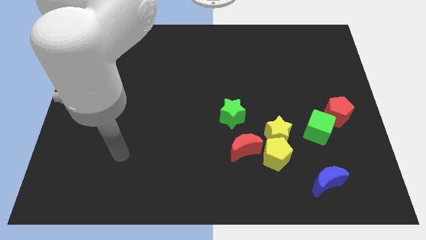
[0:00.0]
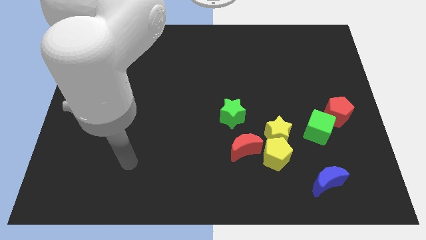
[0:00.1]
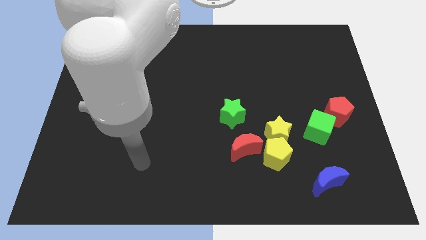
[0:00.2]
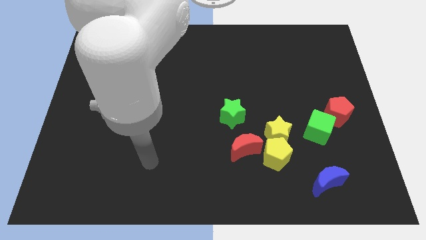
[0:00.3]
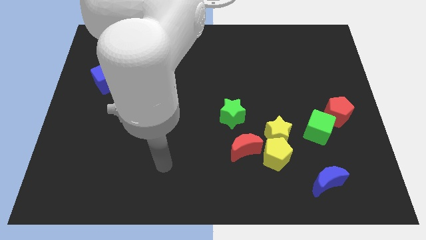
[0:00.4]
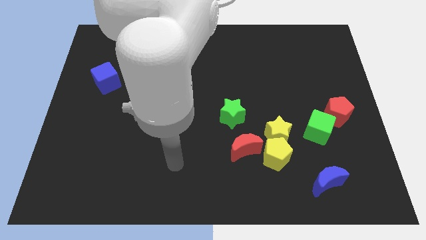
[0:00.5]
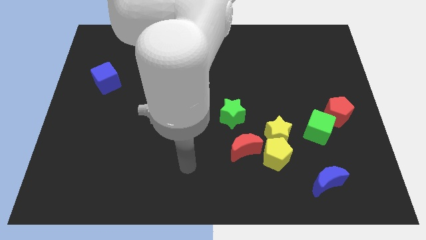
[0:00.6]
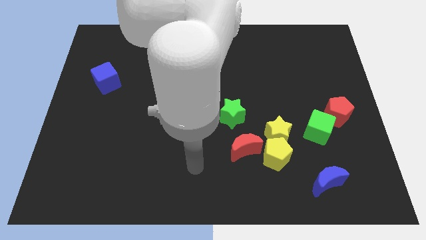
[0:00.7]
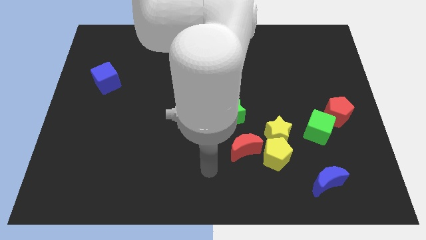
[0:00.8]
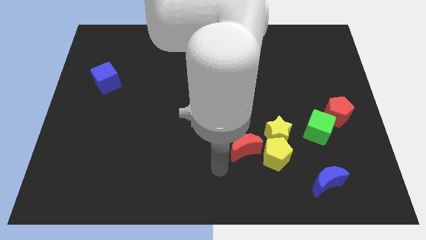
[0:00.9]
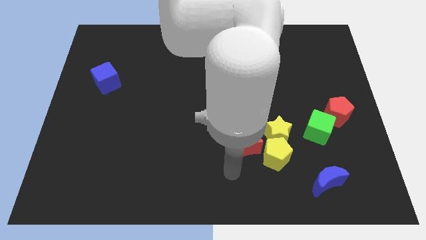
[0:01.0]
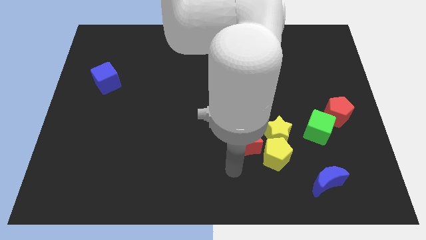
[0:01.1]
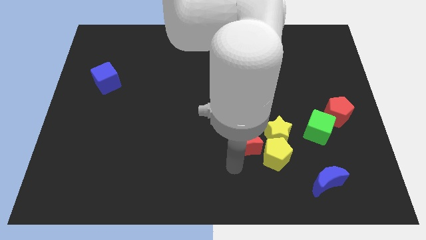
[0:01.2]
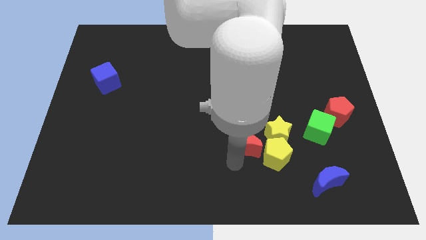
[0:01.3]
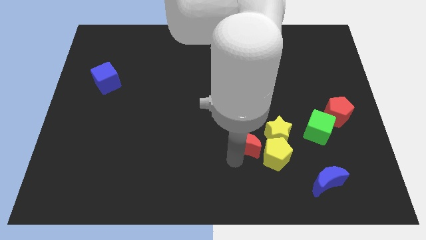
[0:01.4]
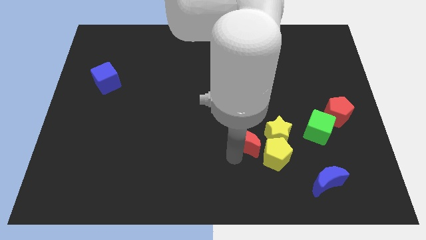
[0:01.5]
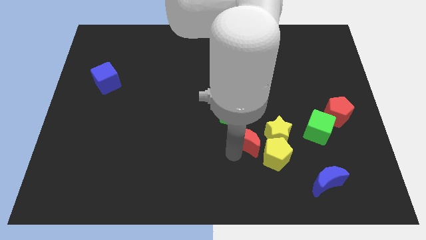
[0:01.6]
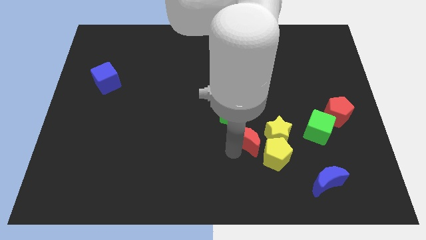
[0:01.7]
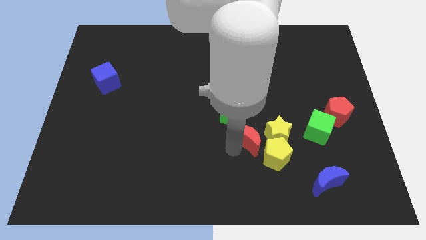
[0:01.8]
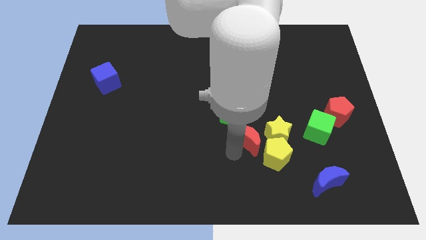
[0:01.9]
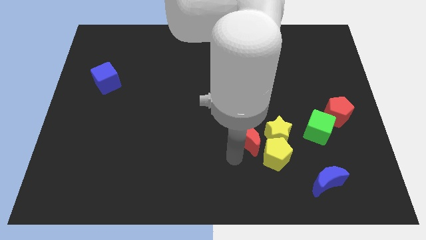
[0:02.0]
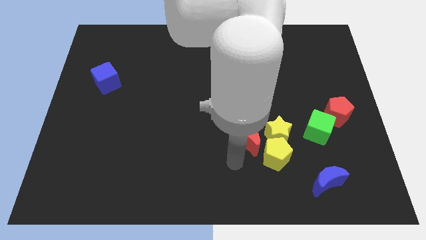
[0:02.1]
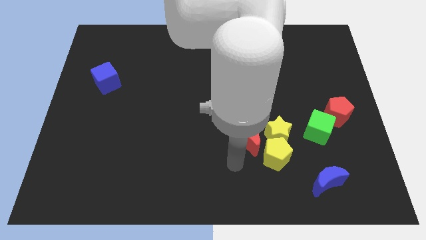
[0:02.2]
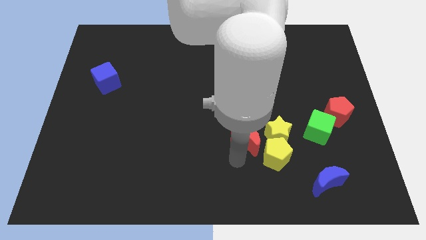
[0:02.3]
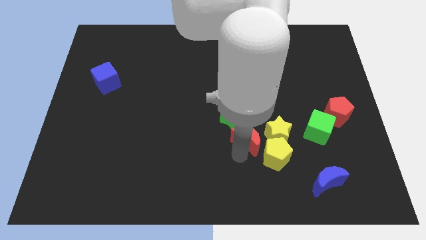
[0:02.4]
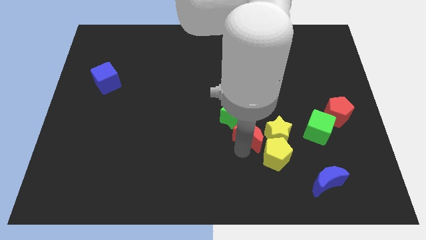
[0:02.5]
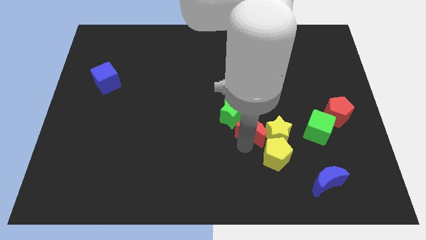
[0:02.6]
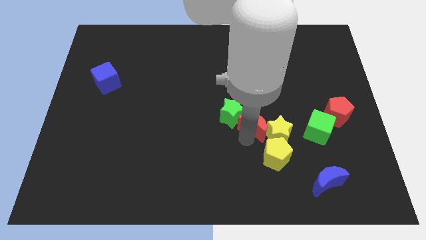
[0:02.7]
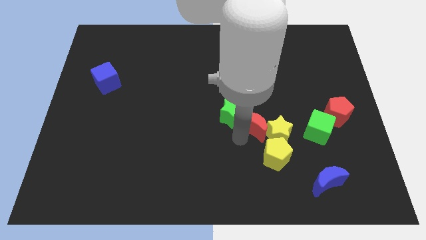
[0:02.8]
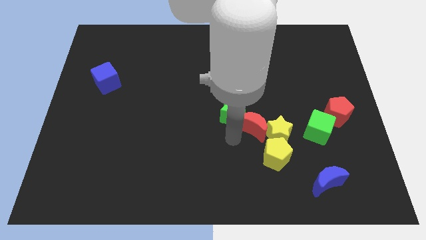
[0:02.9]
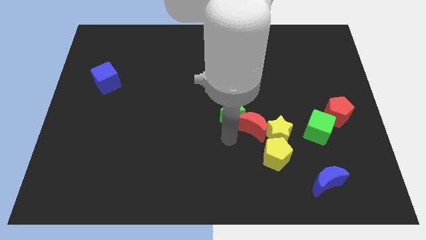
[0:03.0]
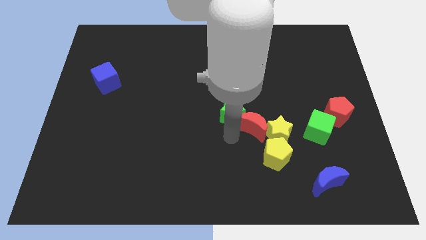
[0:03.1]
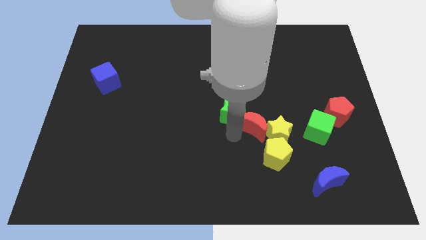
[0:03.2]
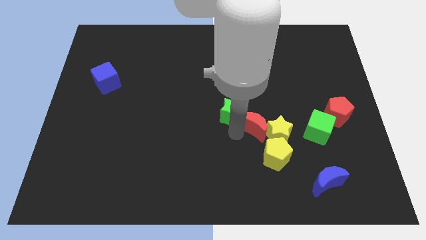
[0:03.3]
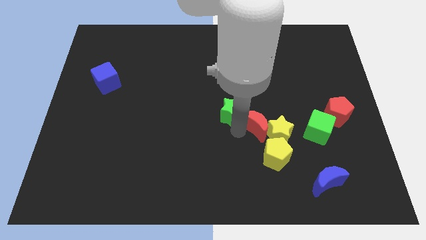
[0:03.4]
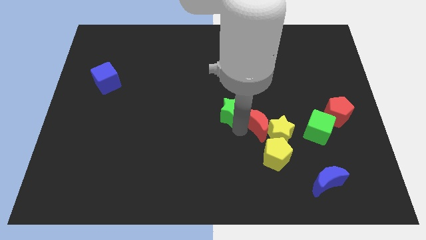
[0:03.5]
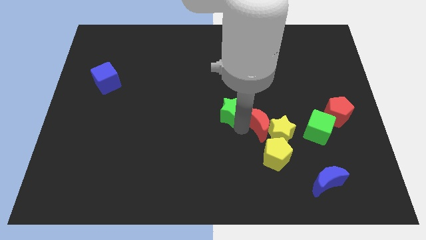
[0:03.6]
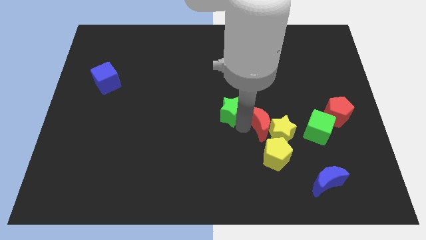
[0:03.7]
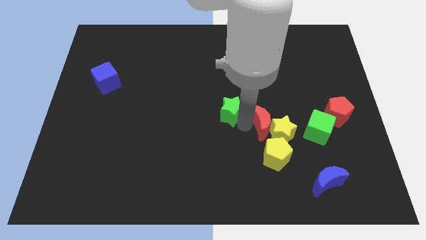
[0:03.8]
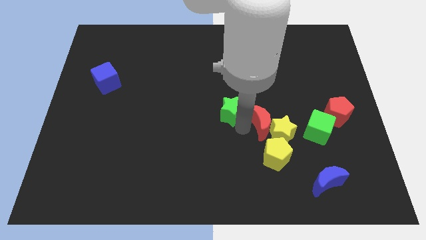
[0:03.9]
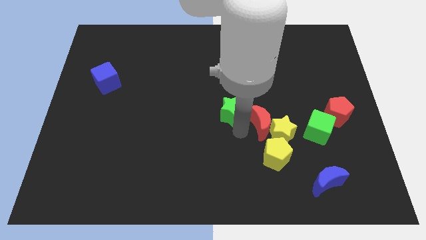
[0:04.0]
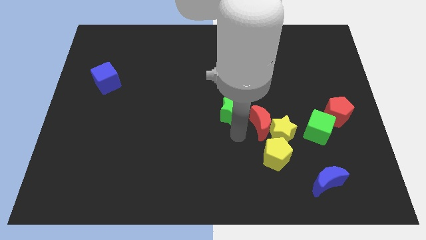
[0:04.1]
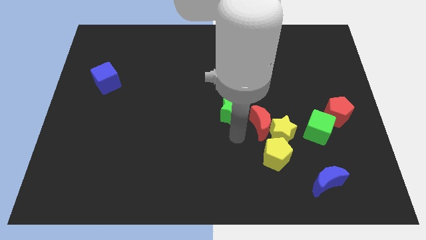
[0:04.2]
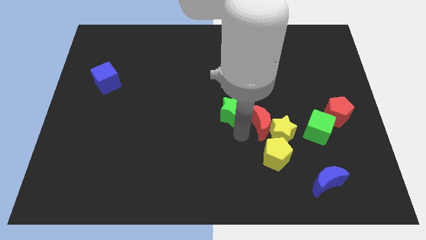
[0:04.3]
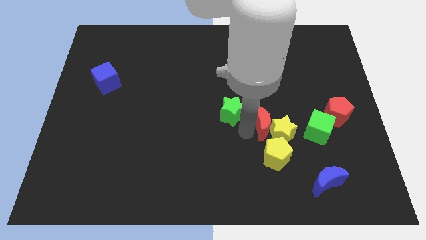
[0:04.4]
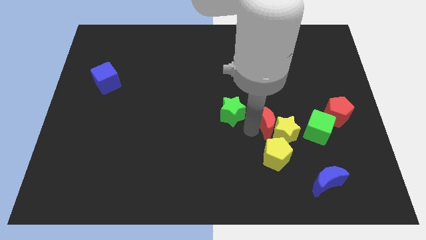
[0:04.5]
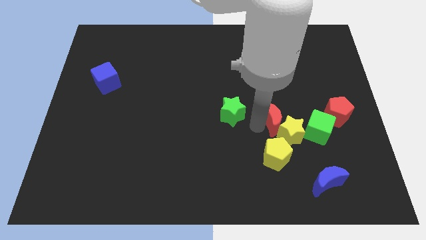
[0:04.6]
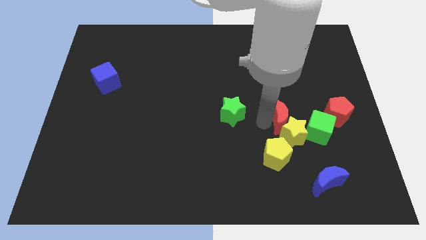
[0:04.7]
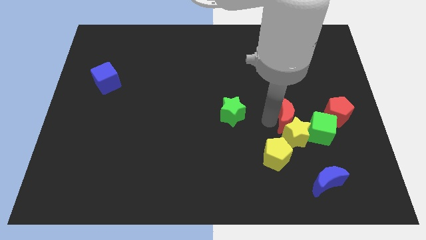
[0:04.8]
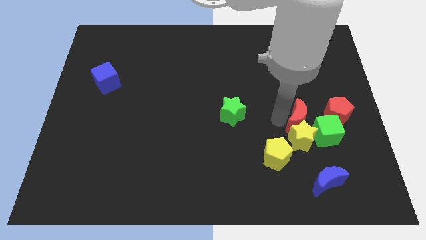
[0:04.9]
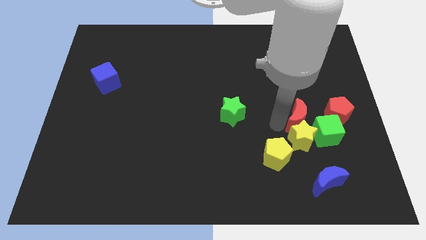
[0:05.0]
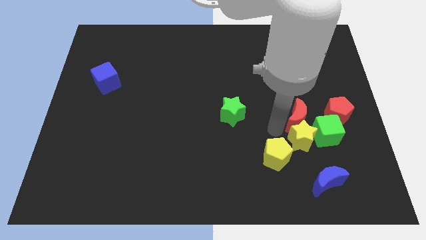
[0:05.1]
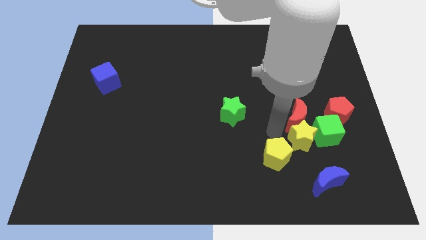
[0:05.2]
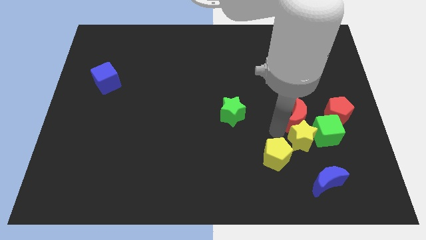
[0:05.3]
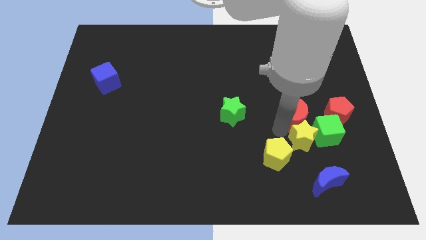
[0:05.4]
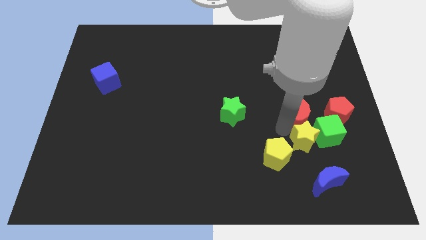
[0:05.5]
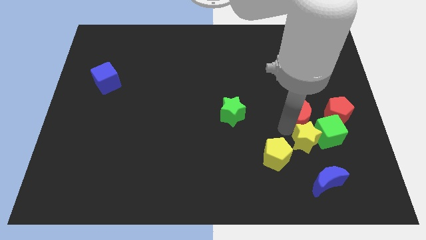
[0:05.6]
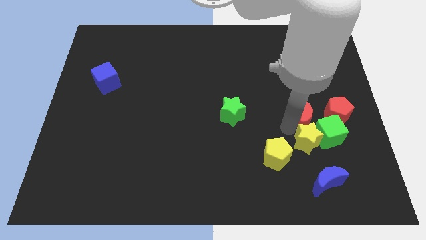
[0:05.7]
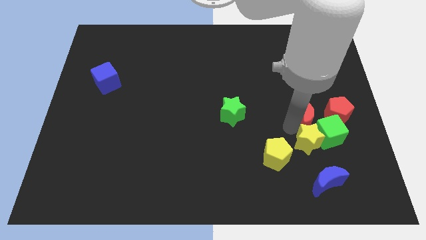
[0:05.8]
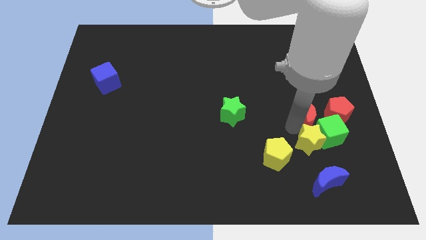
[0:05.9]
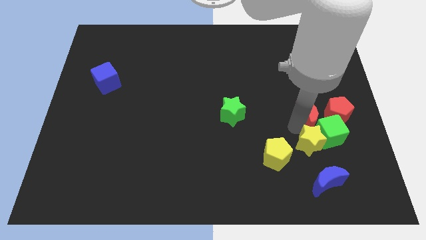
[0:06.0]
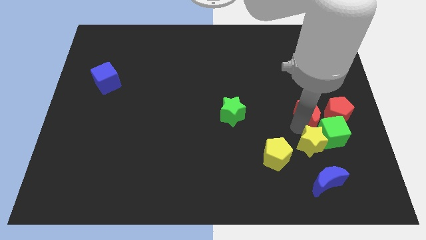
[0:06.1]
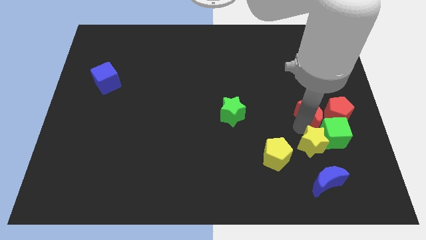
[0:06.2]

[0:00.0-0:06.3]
move the red moon next to the red pentagon

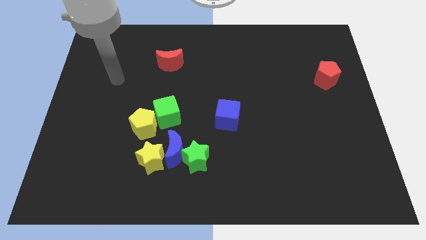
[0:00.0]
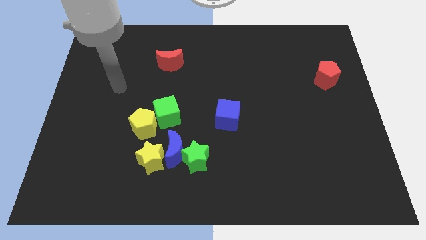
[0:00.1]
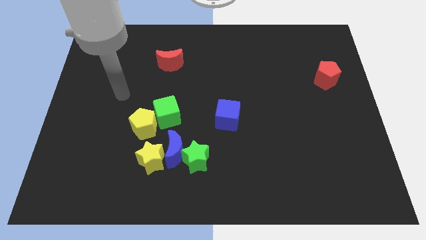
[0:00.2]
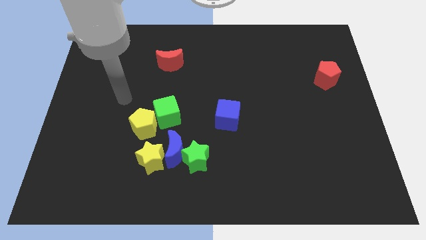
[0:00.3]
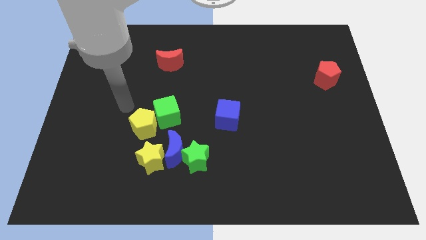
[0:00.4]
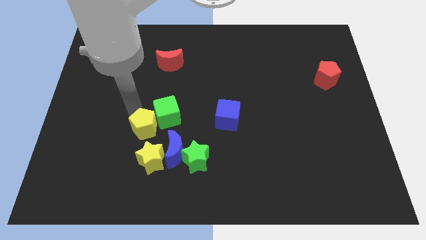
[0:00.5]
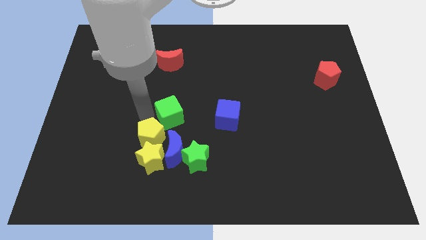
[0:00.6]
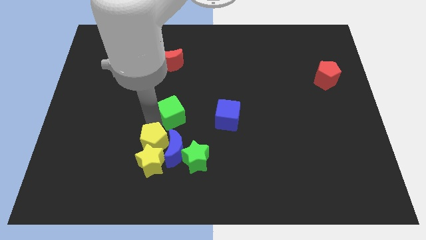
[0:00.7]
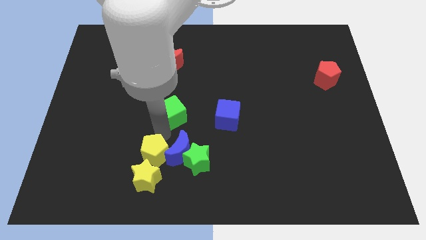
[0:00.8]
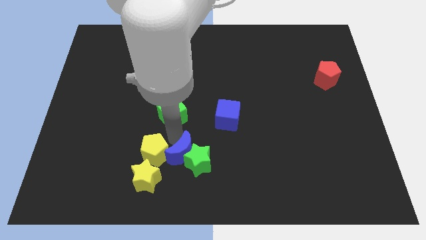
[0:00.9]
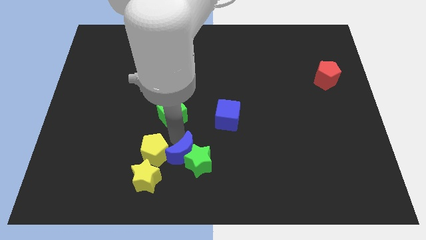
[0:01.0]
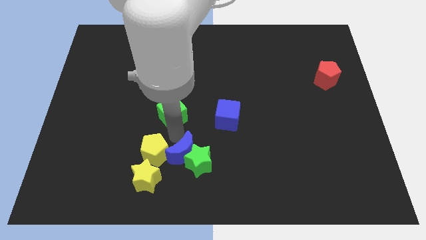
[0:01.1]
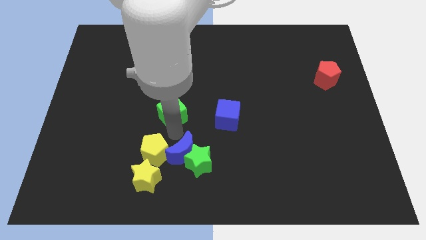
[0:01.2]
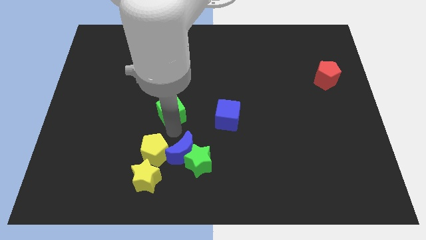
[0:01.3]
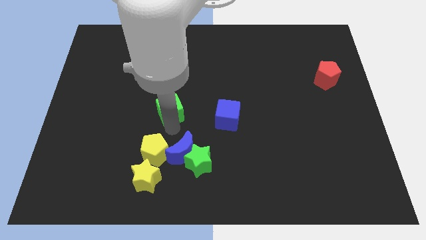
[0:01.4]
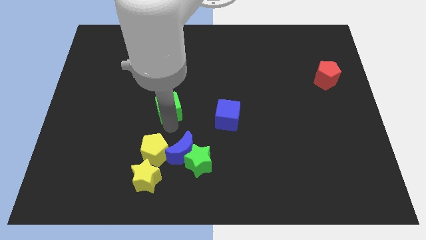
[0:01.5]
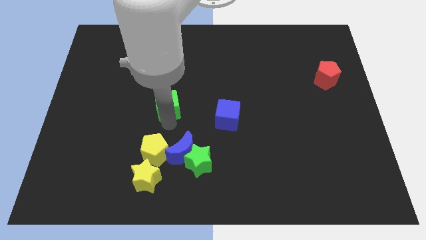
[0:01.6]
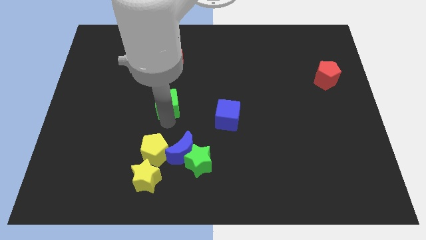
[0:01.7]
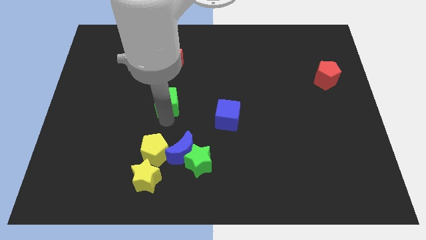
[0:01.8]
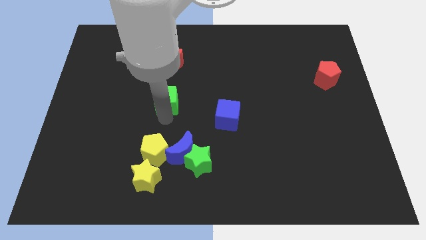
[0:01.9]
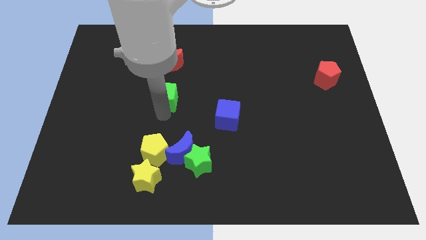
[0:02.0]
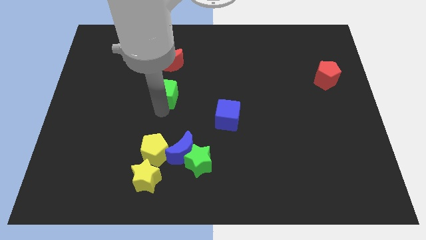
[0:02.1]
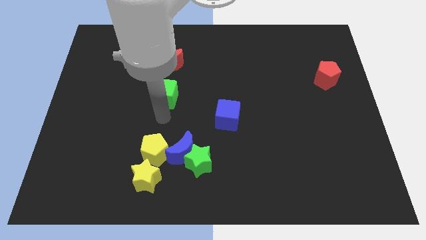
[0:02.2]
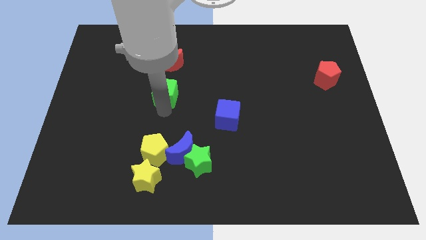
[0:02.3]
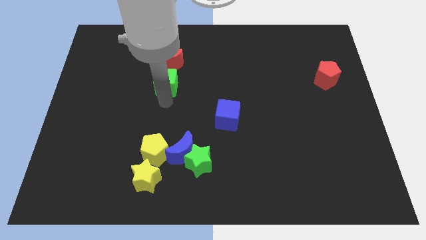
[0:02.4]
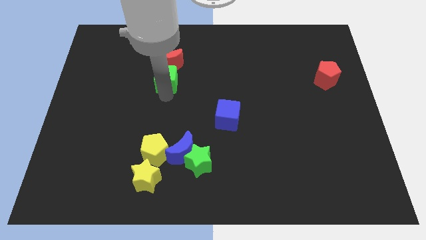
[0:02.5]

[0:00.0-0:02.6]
put the green cube towards the red moon
